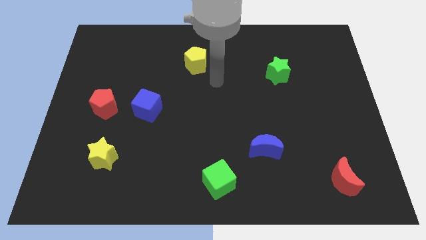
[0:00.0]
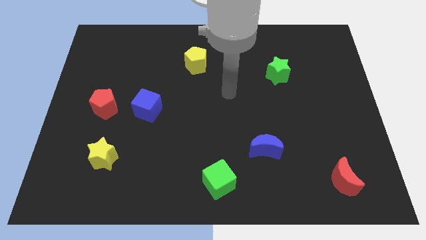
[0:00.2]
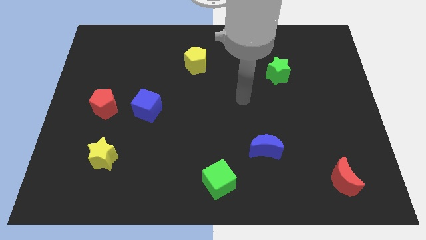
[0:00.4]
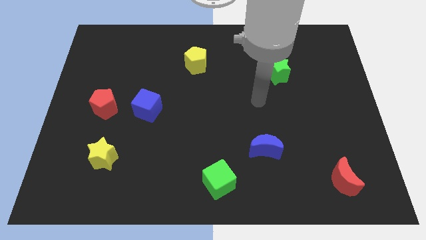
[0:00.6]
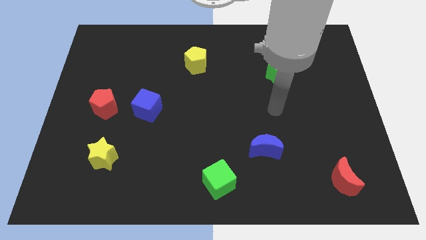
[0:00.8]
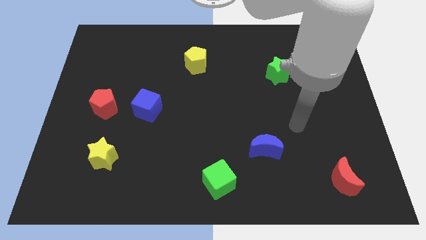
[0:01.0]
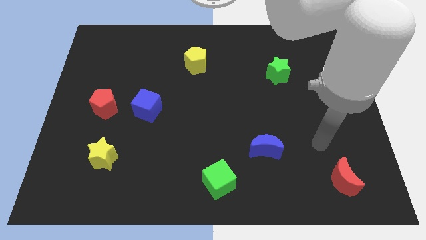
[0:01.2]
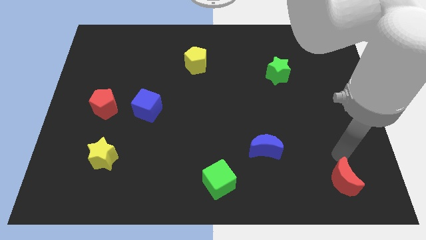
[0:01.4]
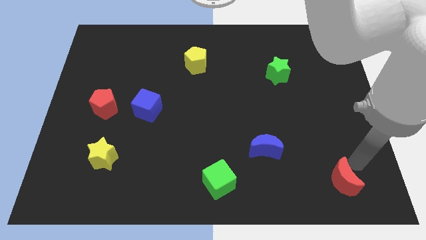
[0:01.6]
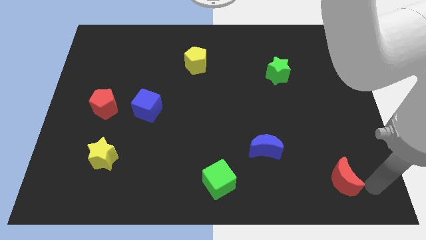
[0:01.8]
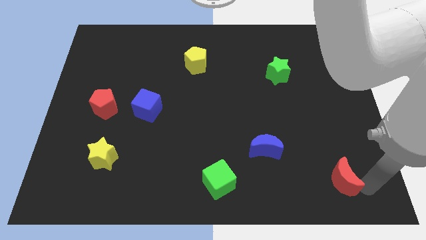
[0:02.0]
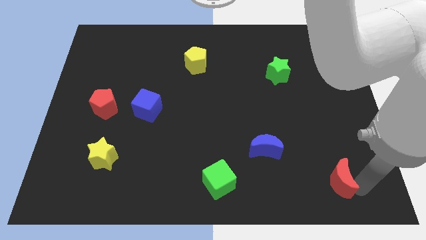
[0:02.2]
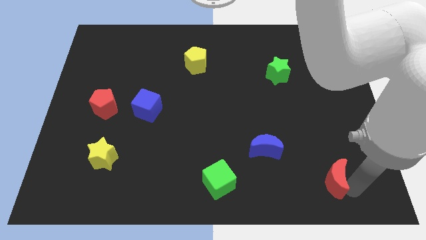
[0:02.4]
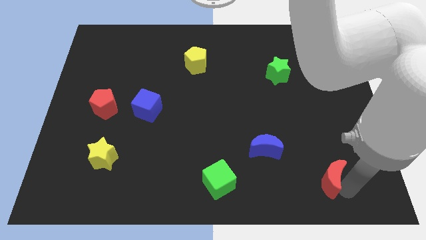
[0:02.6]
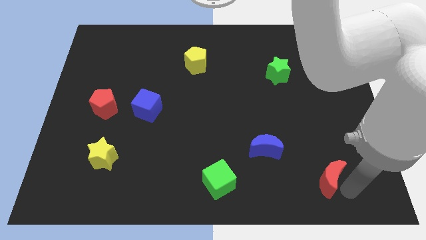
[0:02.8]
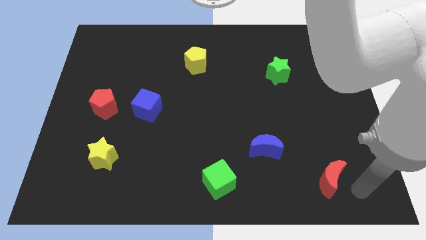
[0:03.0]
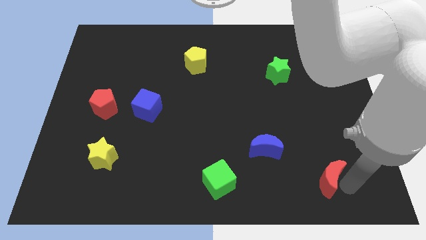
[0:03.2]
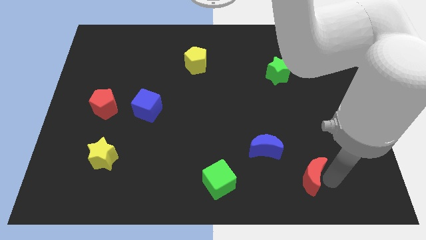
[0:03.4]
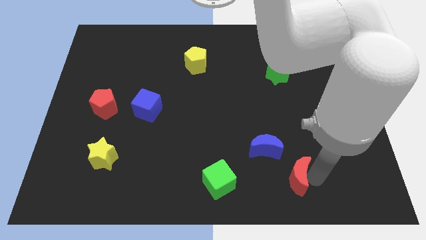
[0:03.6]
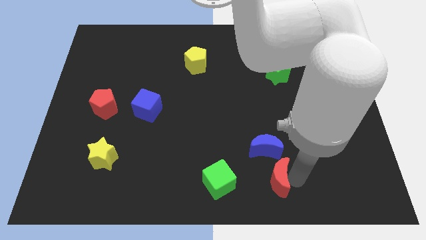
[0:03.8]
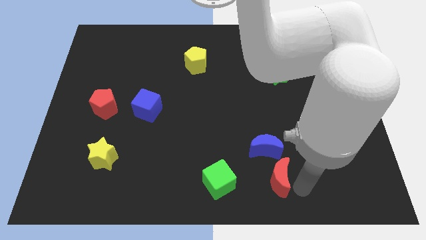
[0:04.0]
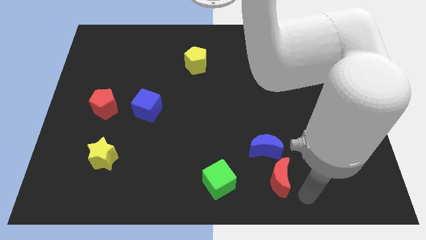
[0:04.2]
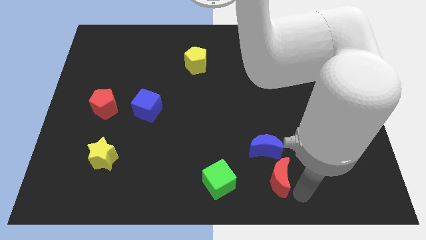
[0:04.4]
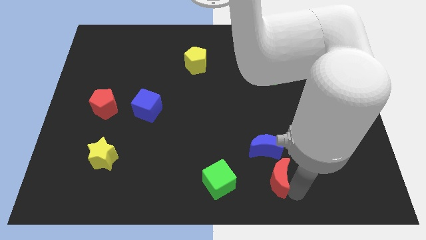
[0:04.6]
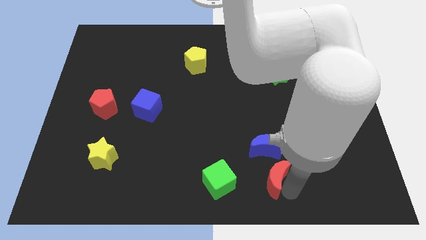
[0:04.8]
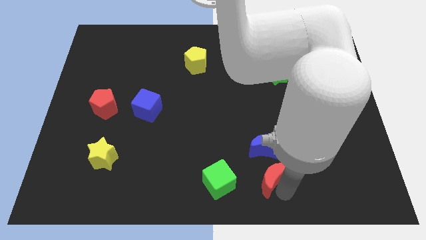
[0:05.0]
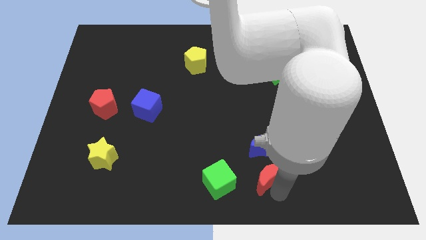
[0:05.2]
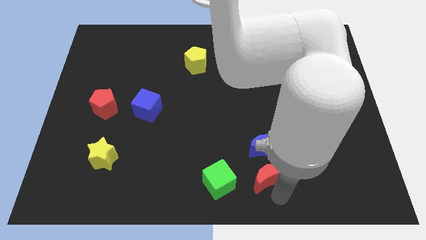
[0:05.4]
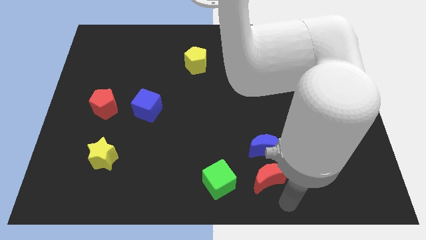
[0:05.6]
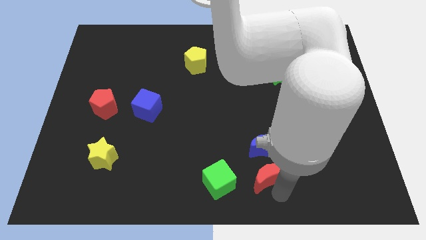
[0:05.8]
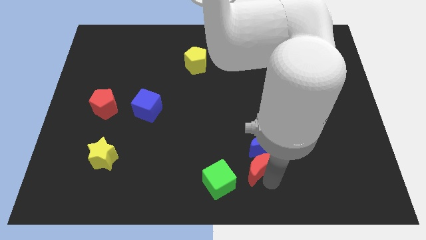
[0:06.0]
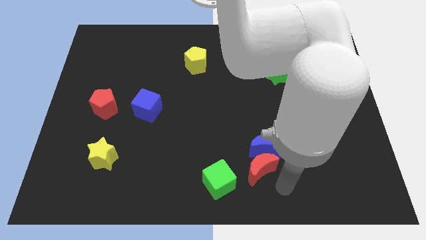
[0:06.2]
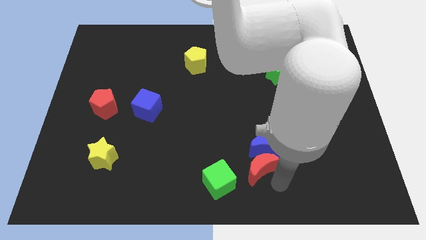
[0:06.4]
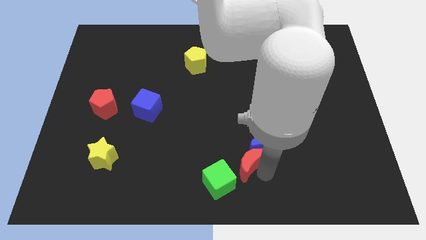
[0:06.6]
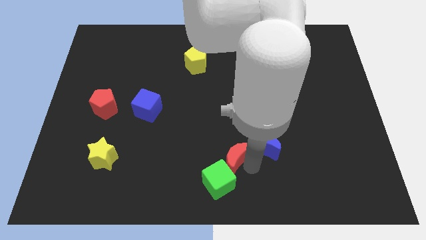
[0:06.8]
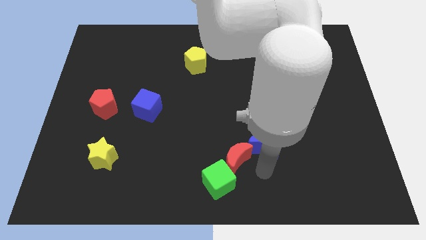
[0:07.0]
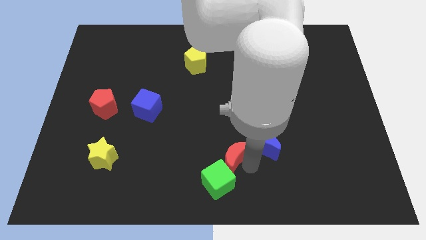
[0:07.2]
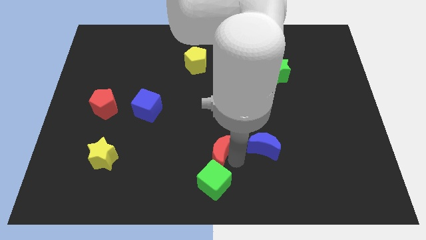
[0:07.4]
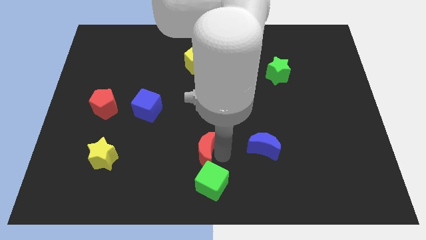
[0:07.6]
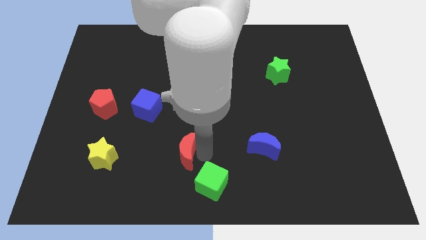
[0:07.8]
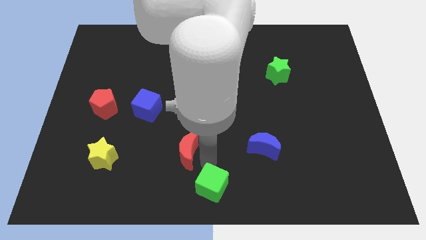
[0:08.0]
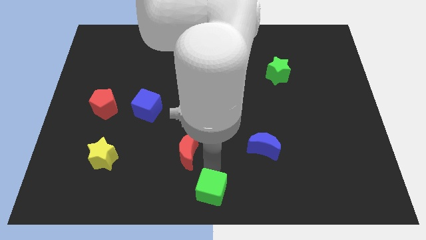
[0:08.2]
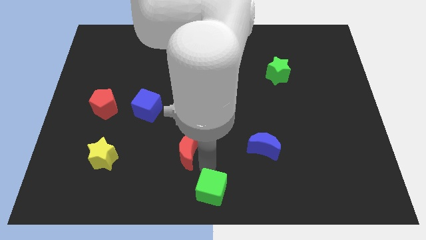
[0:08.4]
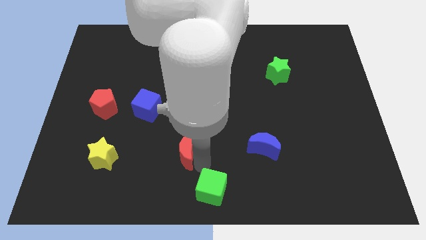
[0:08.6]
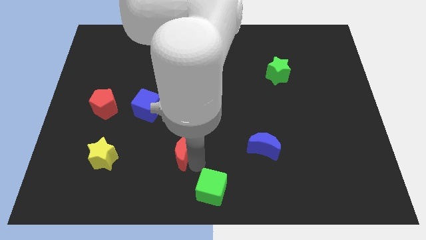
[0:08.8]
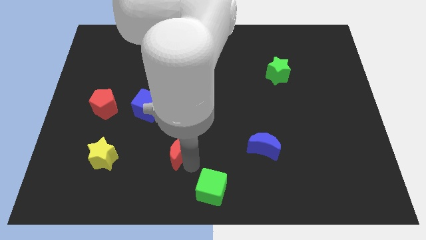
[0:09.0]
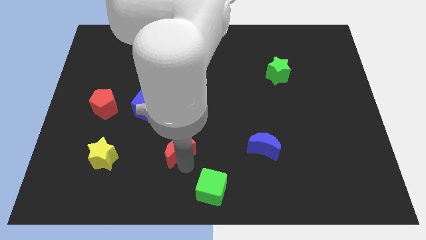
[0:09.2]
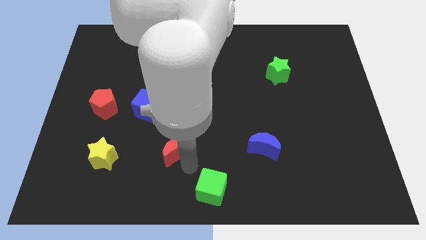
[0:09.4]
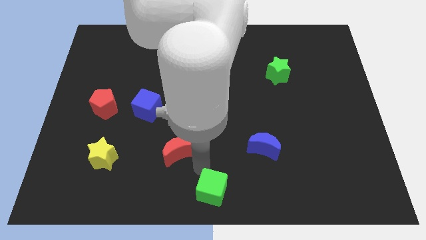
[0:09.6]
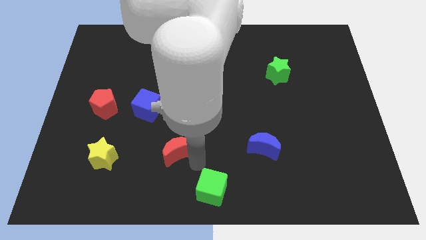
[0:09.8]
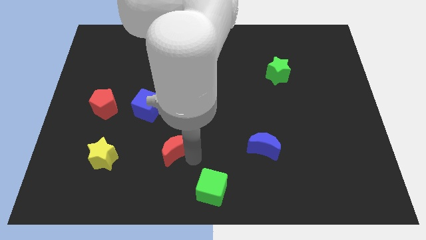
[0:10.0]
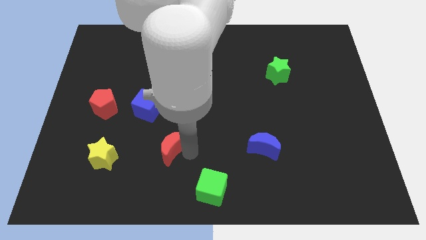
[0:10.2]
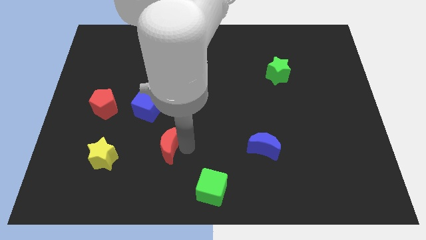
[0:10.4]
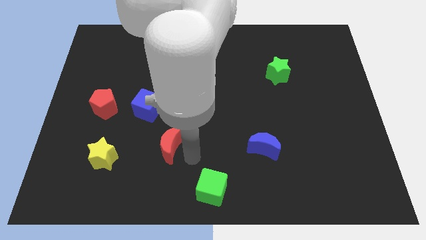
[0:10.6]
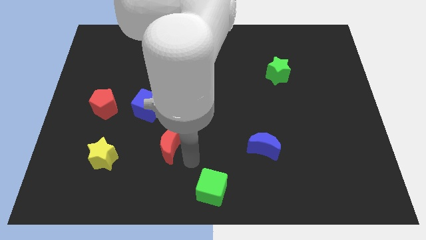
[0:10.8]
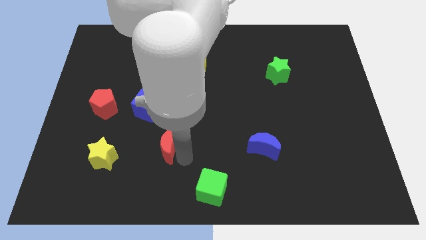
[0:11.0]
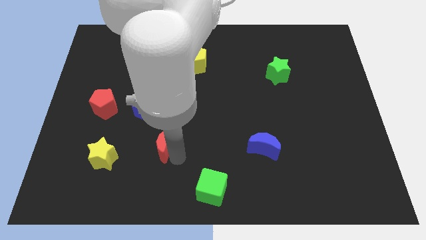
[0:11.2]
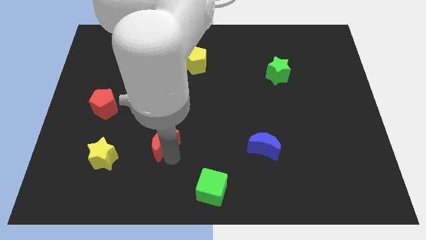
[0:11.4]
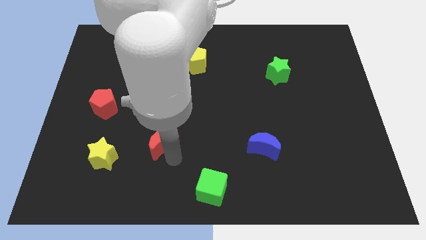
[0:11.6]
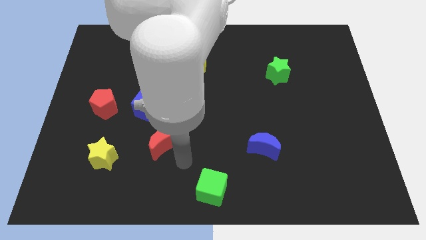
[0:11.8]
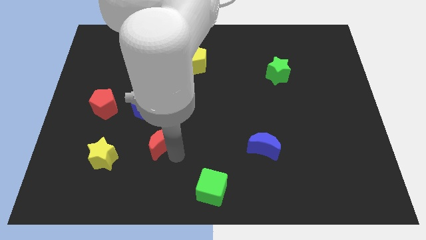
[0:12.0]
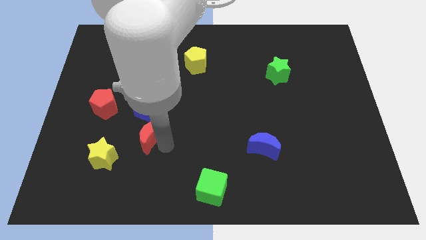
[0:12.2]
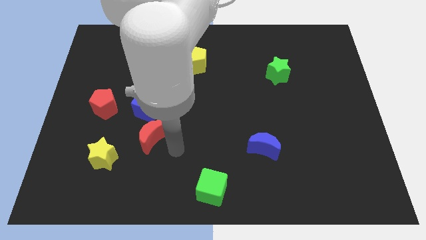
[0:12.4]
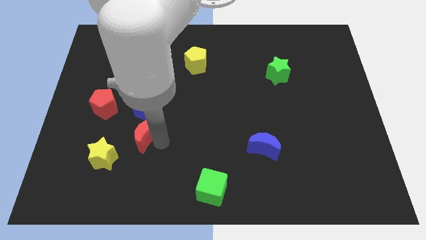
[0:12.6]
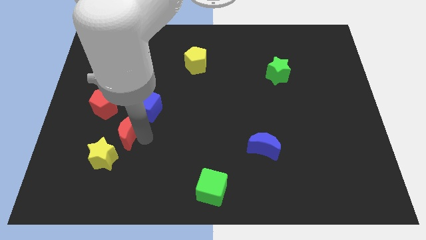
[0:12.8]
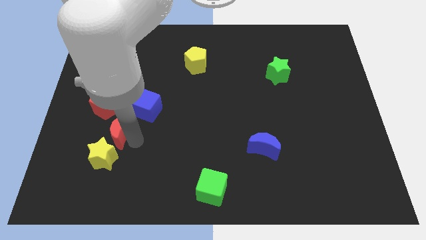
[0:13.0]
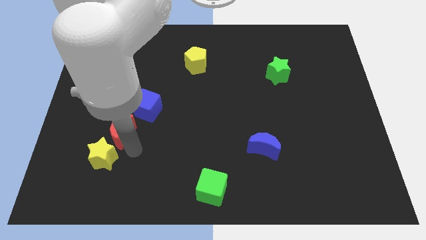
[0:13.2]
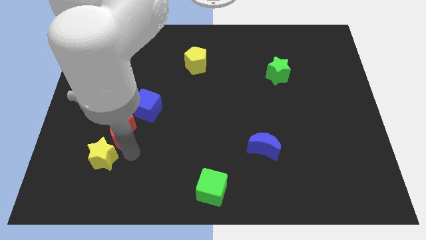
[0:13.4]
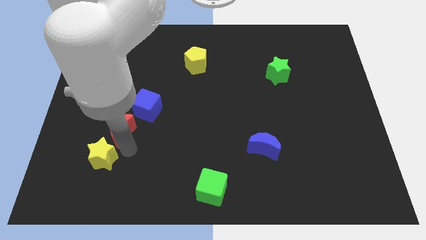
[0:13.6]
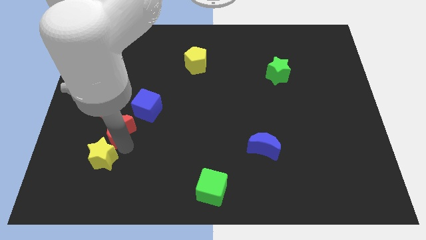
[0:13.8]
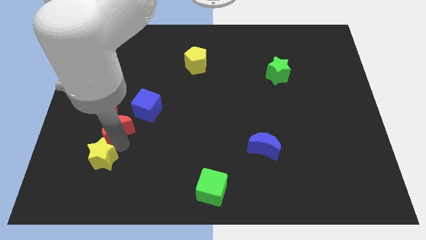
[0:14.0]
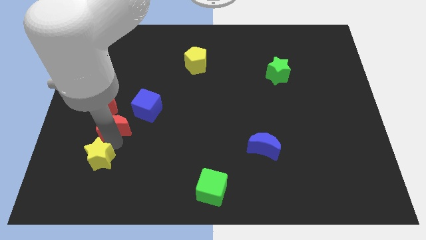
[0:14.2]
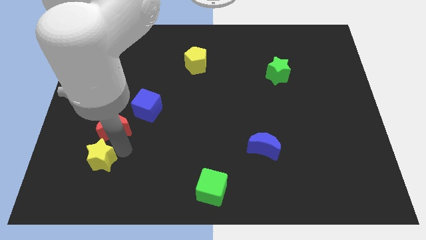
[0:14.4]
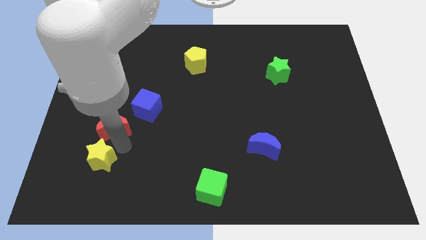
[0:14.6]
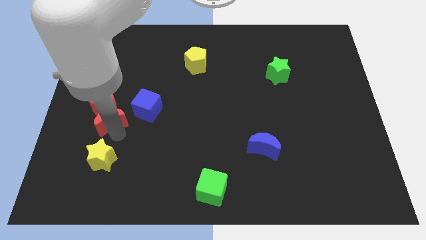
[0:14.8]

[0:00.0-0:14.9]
push the red moon to the red pentagon
